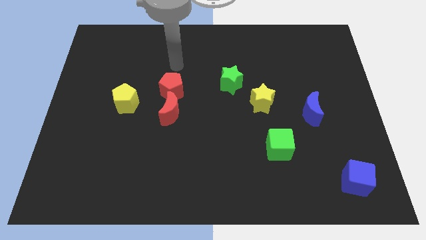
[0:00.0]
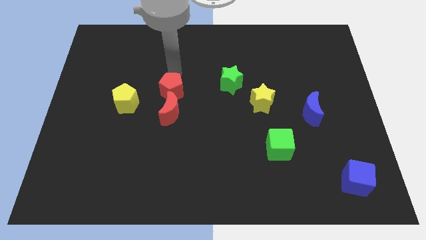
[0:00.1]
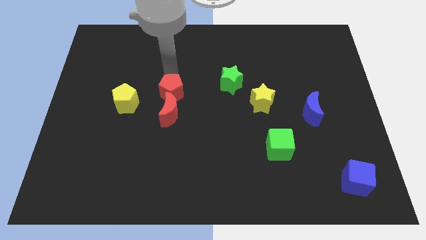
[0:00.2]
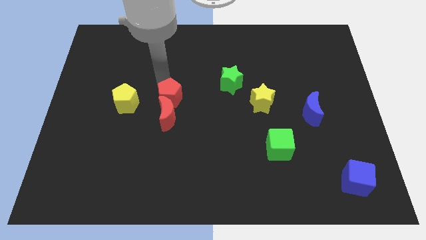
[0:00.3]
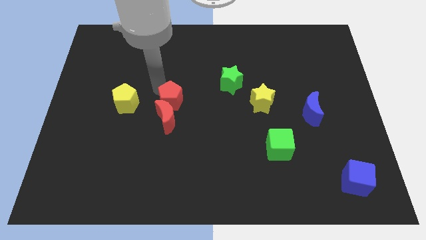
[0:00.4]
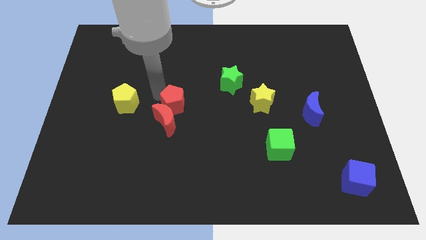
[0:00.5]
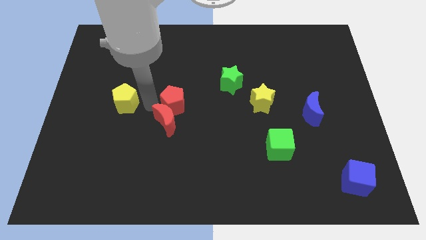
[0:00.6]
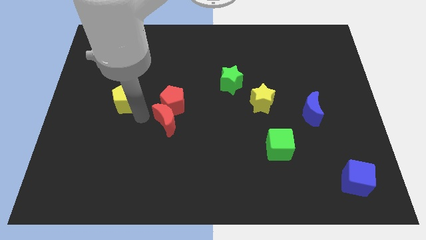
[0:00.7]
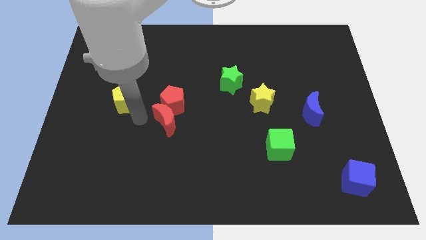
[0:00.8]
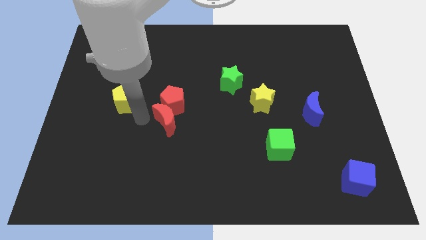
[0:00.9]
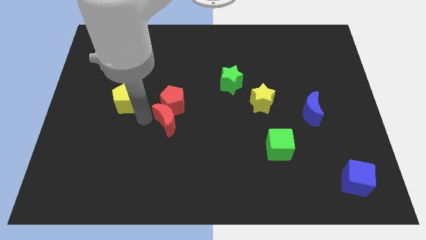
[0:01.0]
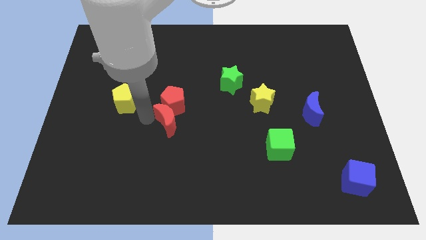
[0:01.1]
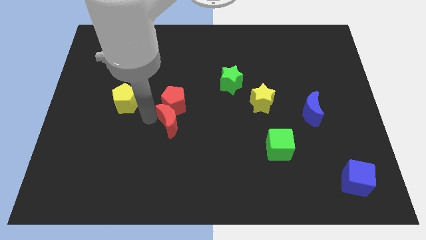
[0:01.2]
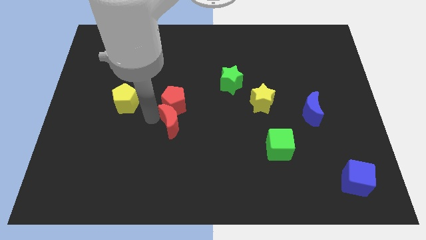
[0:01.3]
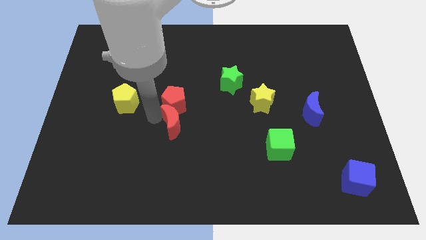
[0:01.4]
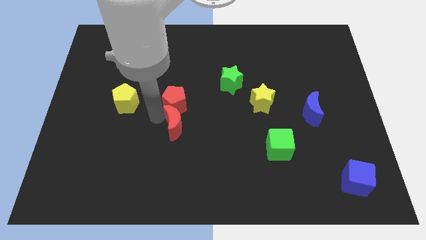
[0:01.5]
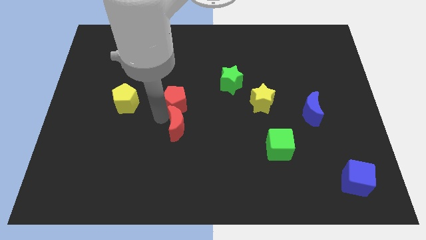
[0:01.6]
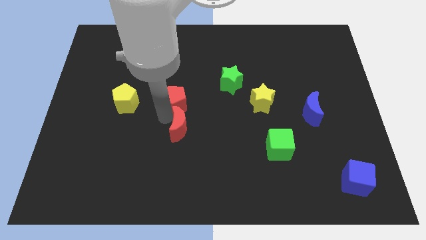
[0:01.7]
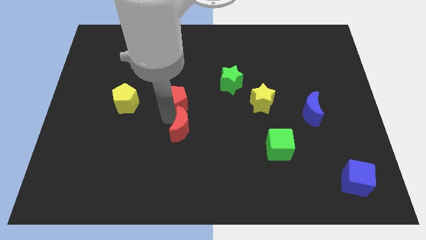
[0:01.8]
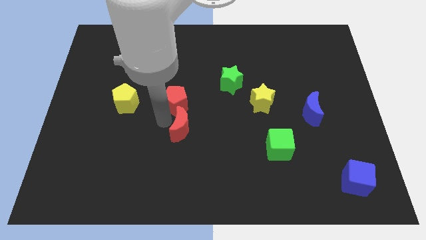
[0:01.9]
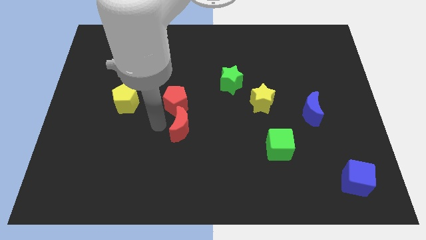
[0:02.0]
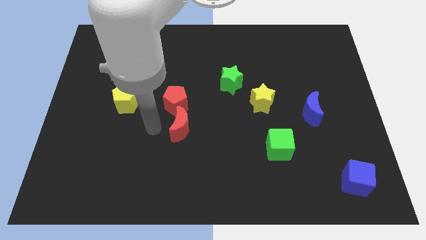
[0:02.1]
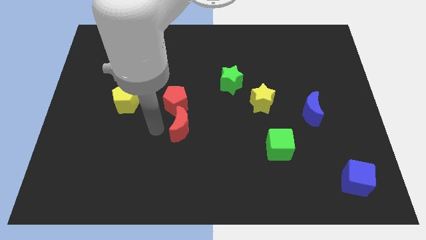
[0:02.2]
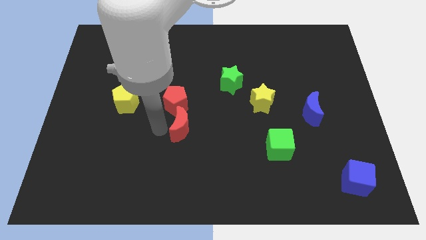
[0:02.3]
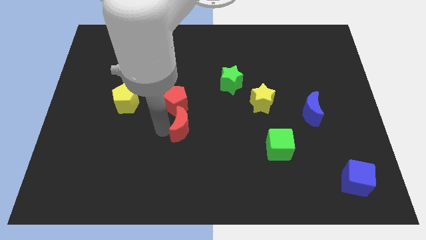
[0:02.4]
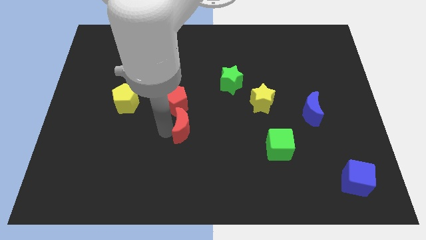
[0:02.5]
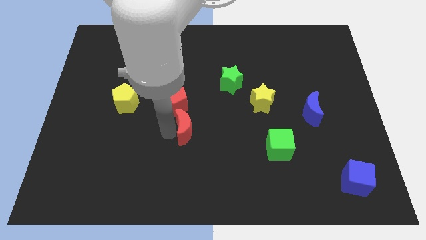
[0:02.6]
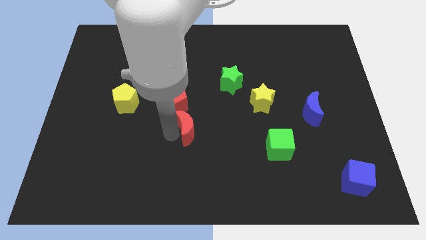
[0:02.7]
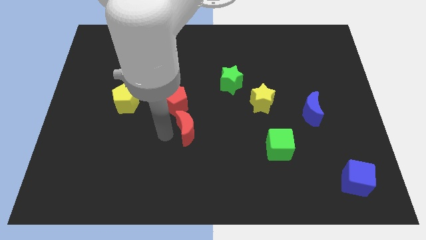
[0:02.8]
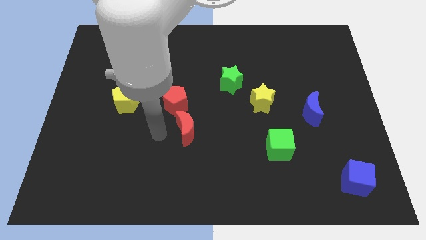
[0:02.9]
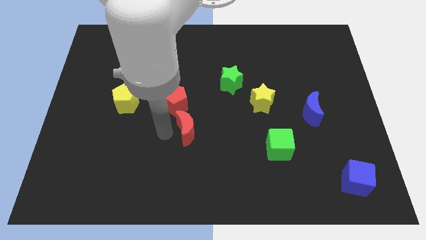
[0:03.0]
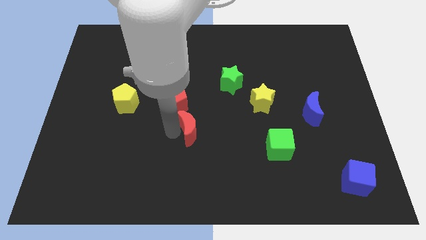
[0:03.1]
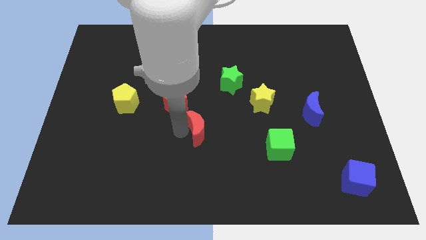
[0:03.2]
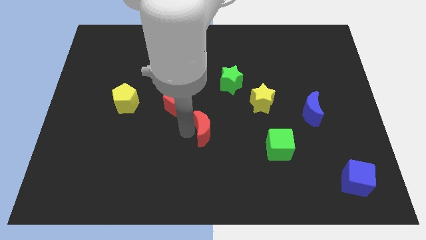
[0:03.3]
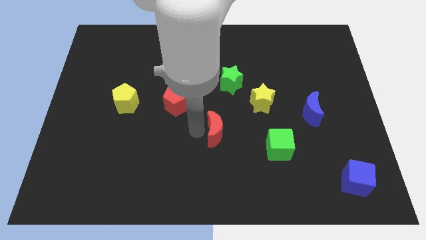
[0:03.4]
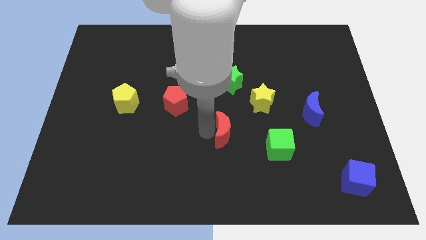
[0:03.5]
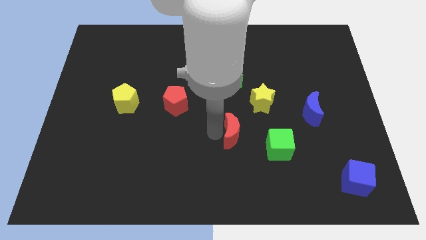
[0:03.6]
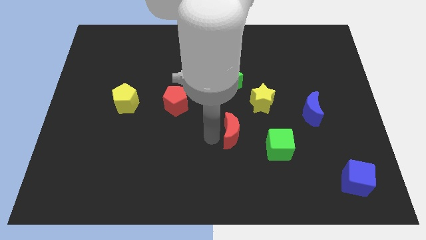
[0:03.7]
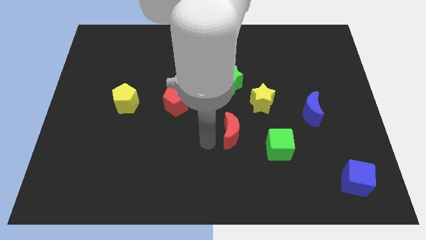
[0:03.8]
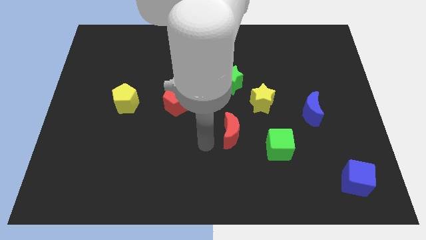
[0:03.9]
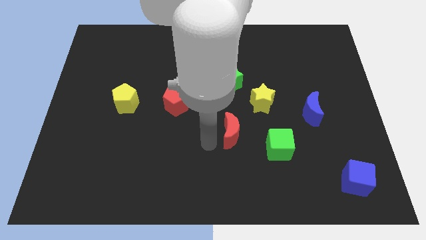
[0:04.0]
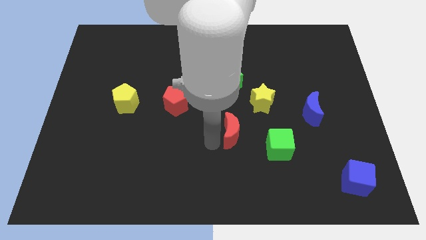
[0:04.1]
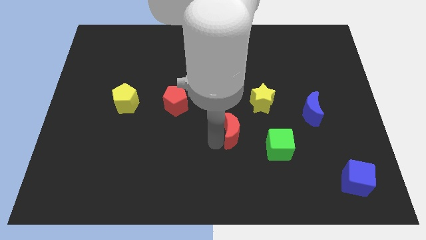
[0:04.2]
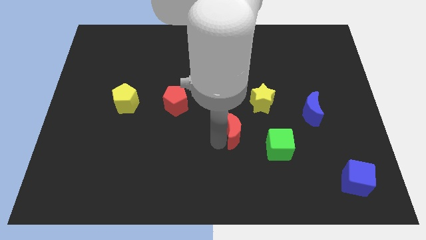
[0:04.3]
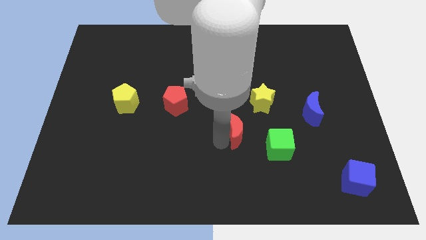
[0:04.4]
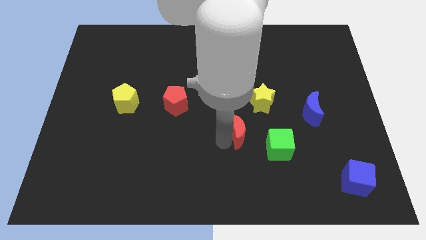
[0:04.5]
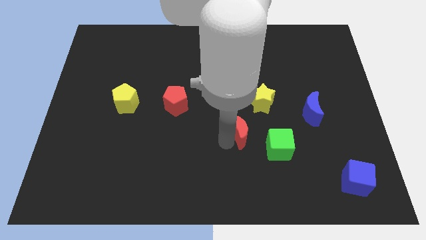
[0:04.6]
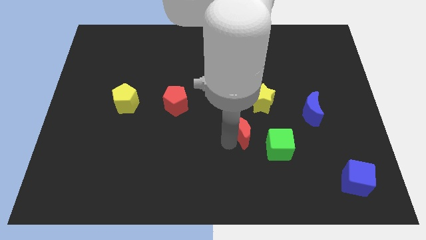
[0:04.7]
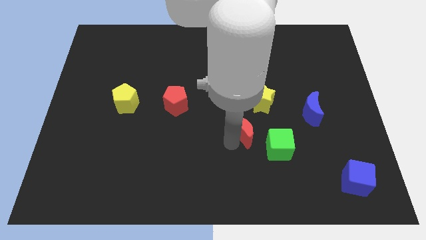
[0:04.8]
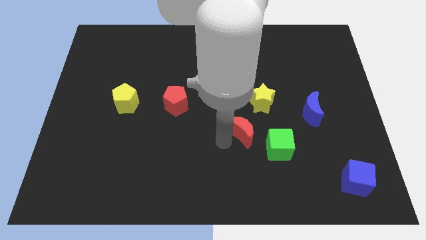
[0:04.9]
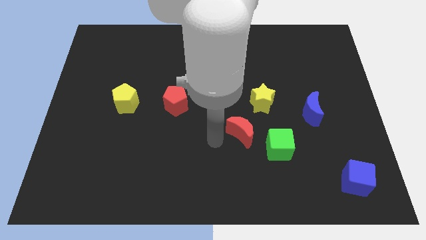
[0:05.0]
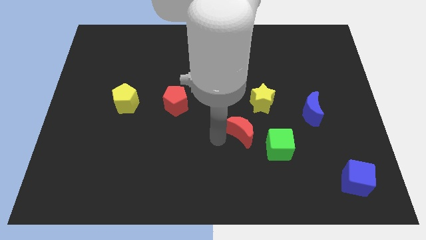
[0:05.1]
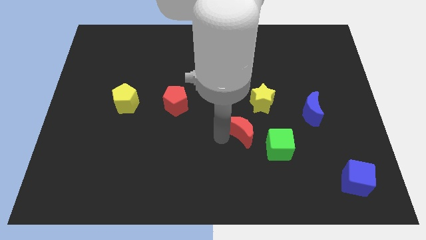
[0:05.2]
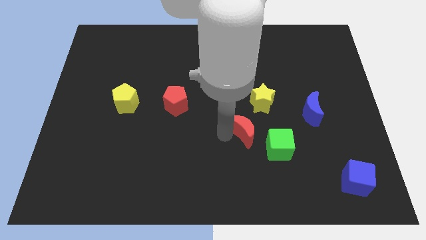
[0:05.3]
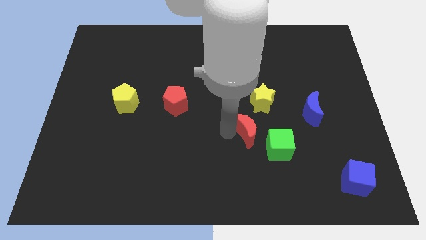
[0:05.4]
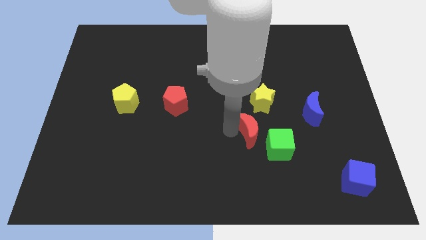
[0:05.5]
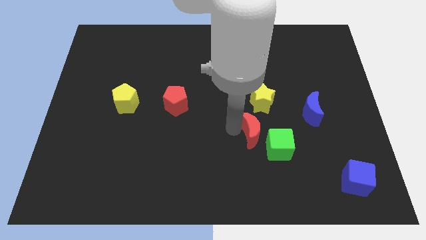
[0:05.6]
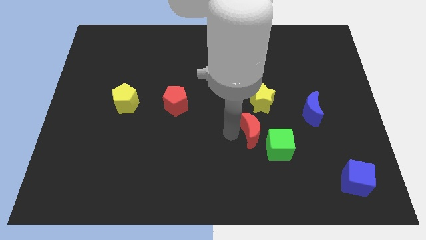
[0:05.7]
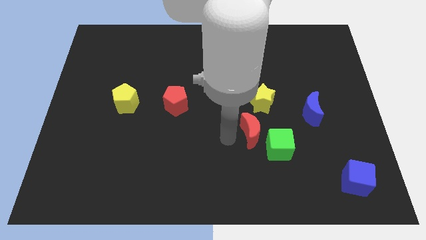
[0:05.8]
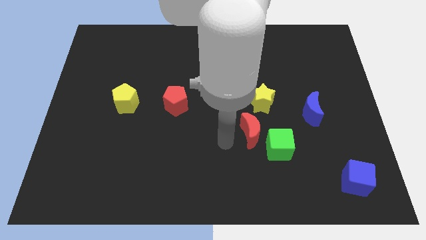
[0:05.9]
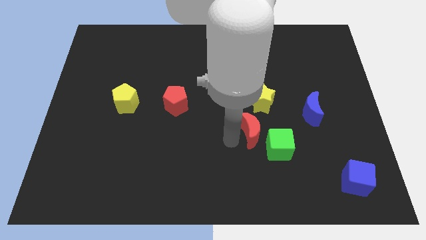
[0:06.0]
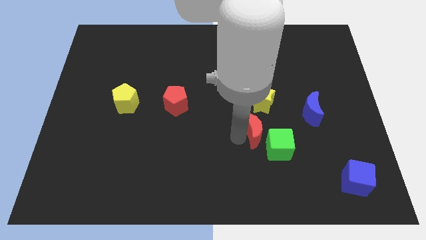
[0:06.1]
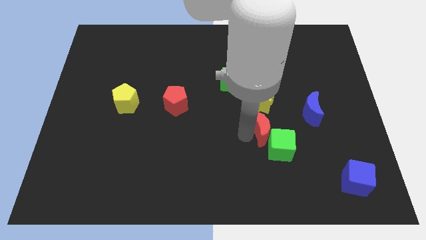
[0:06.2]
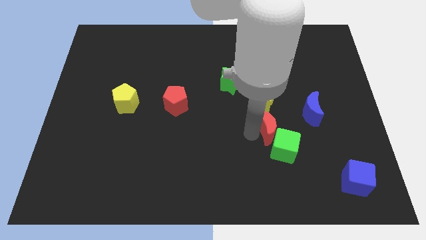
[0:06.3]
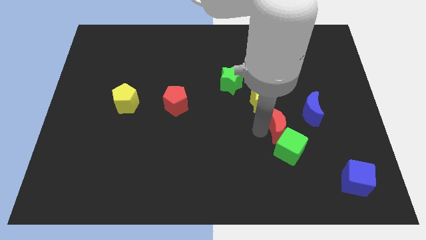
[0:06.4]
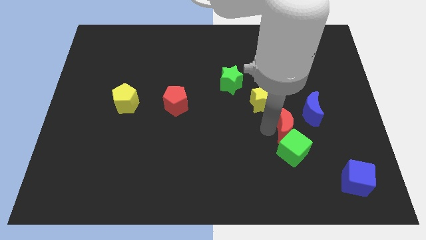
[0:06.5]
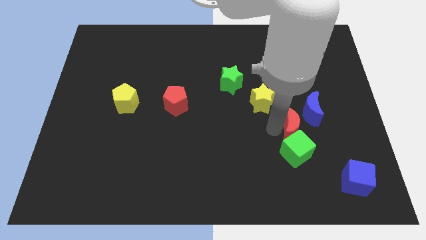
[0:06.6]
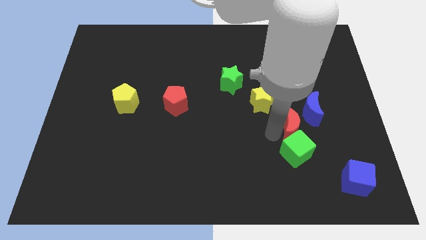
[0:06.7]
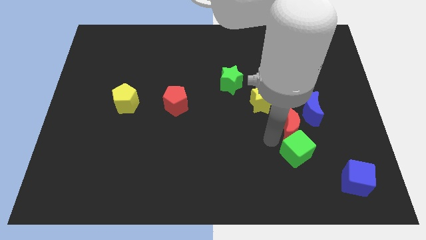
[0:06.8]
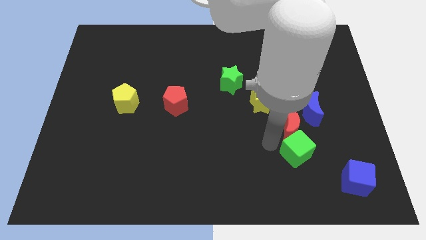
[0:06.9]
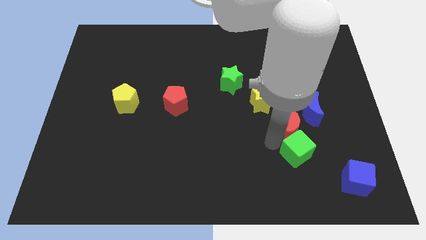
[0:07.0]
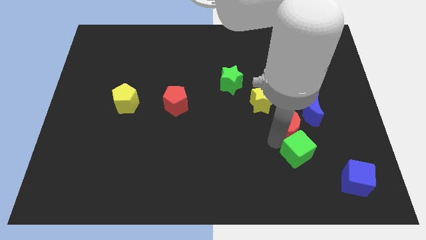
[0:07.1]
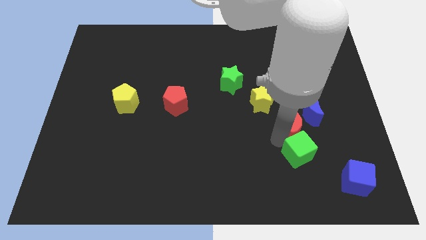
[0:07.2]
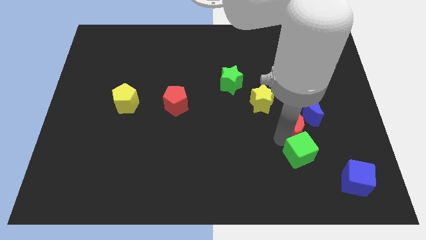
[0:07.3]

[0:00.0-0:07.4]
move the red moon close to the blue moon

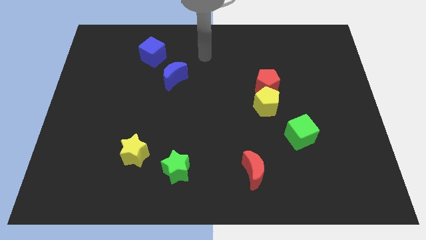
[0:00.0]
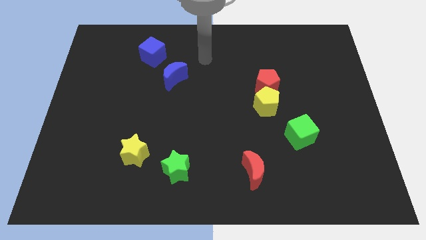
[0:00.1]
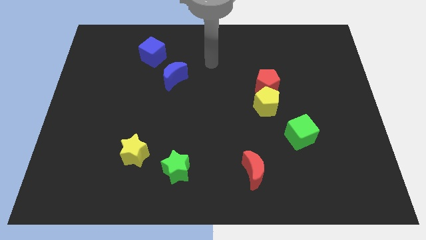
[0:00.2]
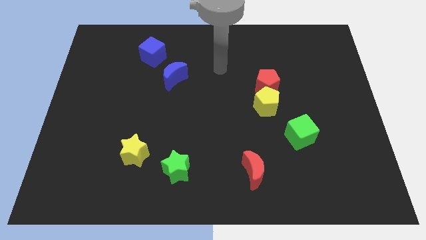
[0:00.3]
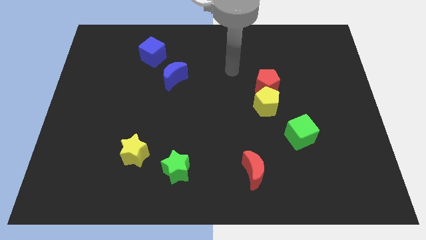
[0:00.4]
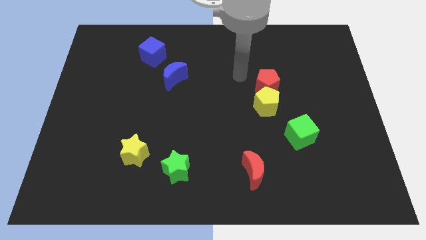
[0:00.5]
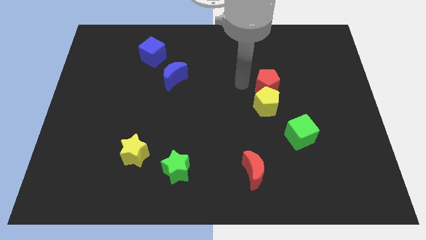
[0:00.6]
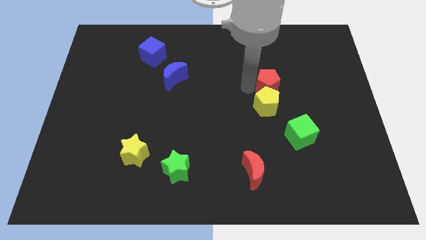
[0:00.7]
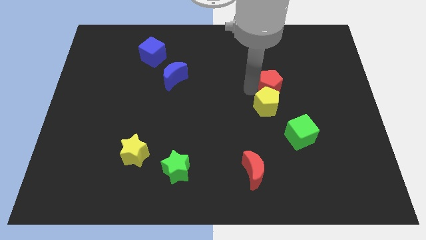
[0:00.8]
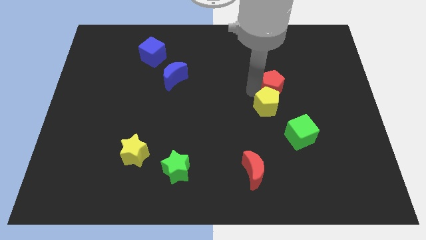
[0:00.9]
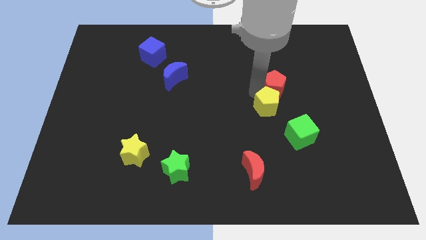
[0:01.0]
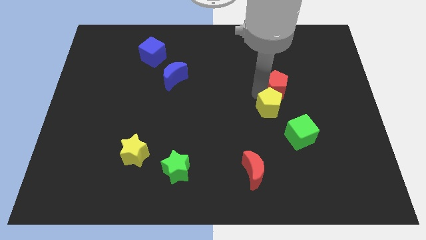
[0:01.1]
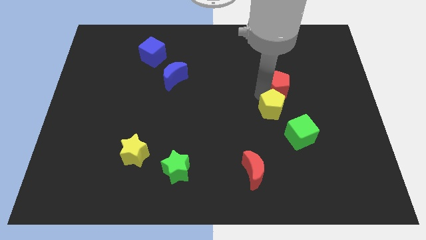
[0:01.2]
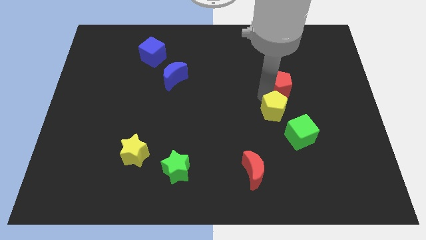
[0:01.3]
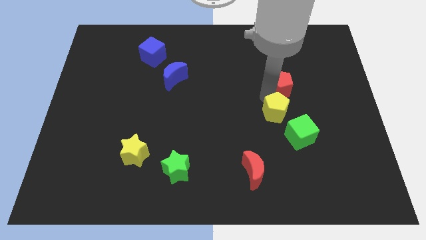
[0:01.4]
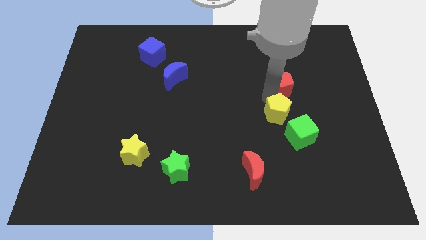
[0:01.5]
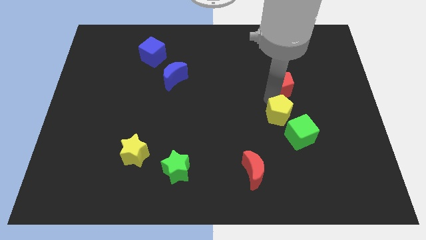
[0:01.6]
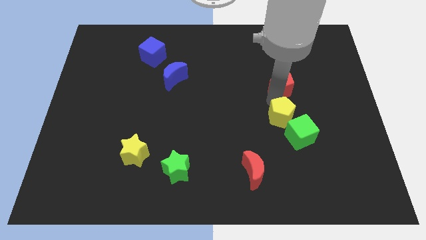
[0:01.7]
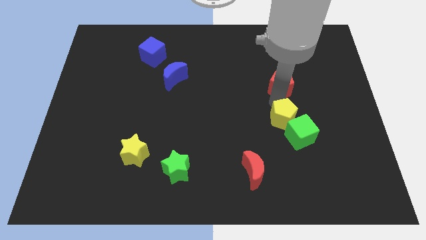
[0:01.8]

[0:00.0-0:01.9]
put the yellow pentagon to the green cube
